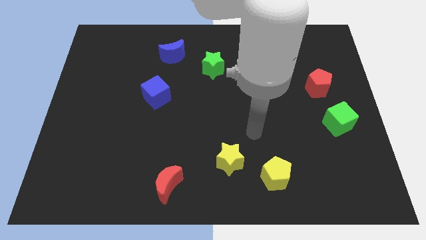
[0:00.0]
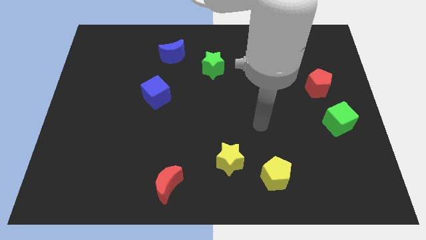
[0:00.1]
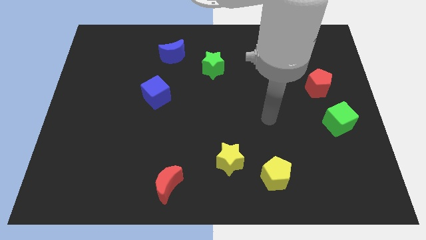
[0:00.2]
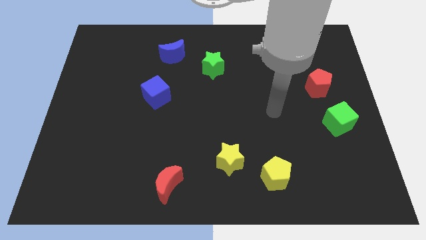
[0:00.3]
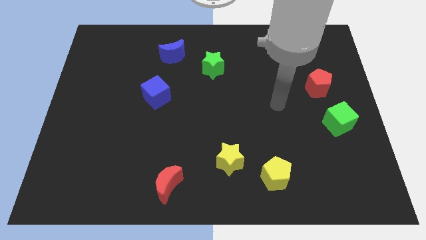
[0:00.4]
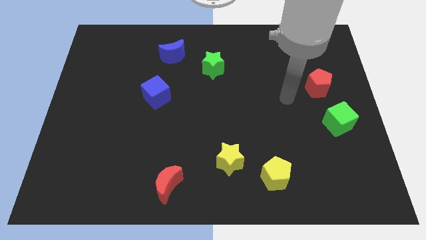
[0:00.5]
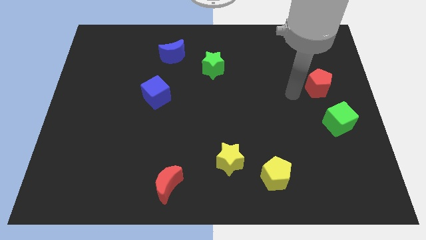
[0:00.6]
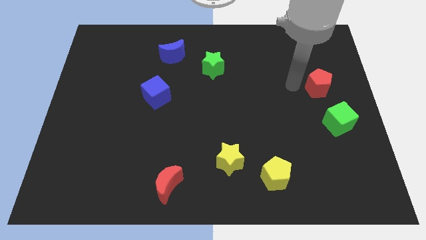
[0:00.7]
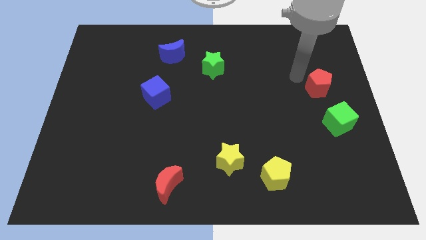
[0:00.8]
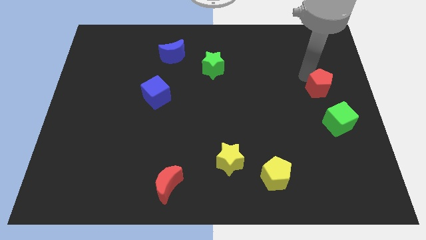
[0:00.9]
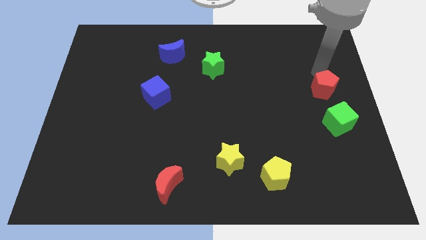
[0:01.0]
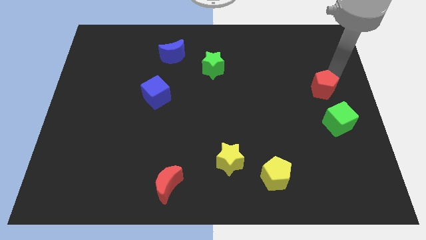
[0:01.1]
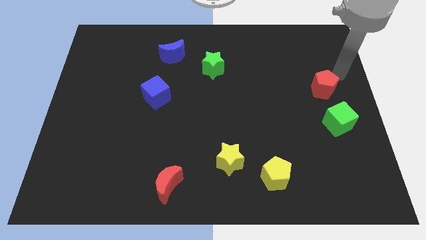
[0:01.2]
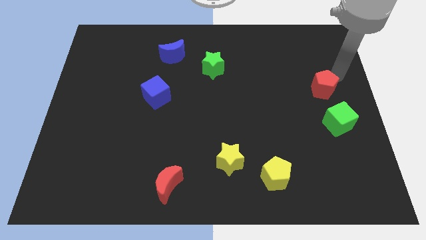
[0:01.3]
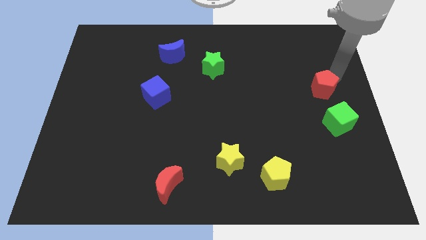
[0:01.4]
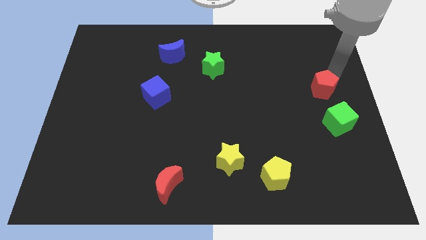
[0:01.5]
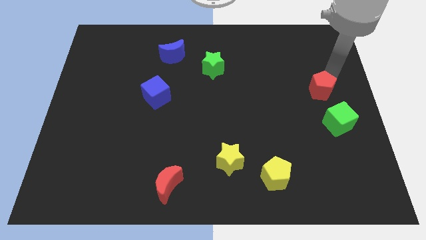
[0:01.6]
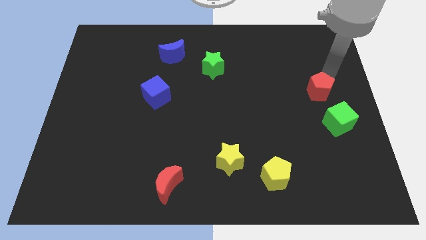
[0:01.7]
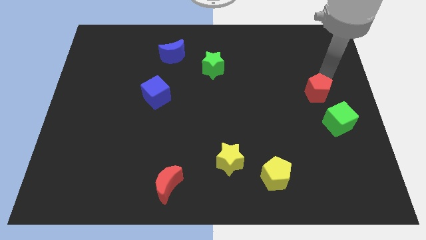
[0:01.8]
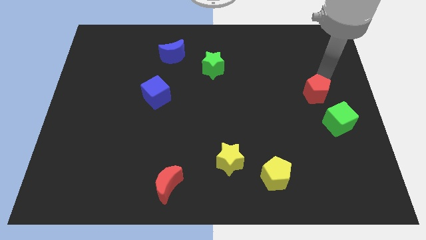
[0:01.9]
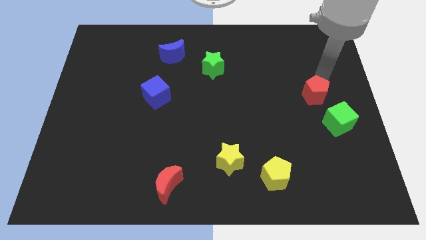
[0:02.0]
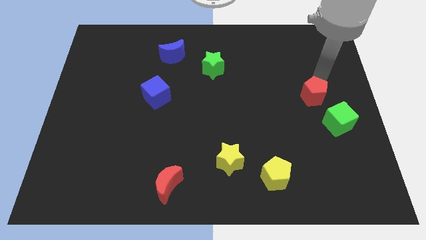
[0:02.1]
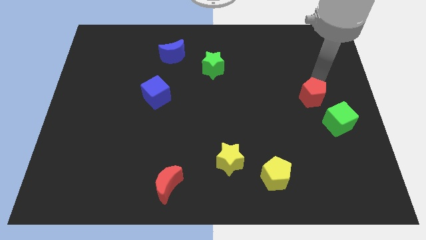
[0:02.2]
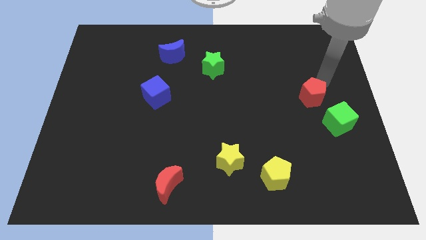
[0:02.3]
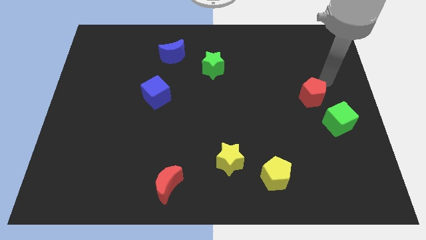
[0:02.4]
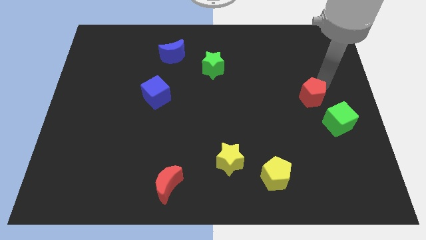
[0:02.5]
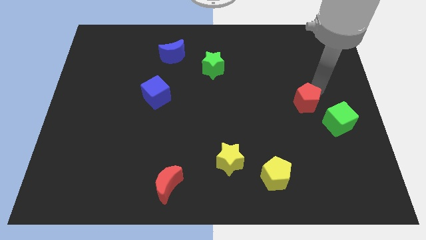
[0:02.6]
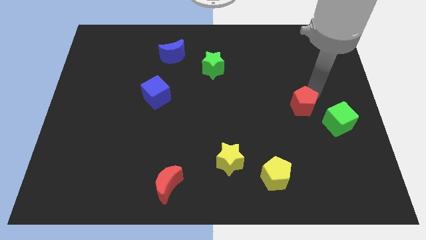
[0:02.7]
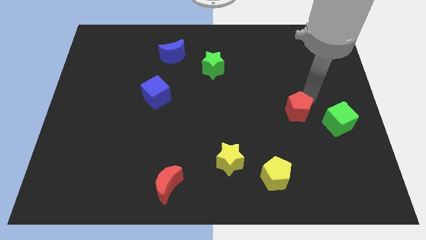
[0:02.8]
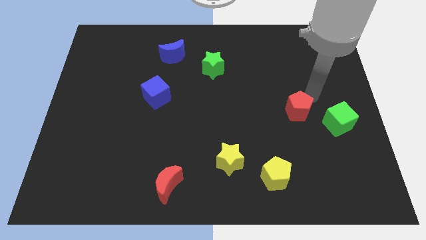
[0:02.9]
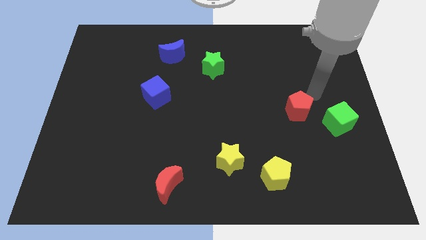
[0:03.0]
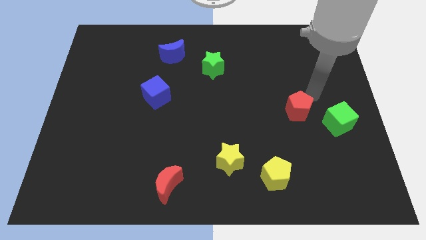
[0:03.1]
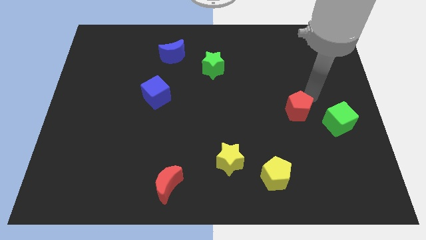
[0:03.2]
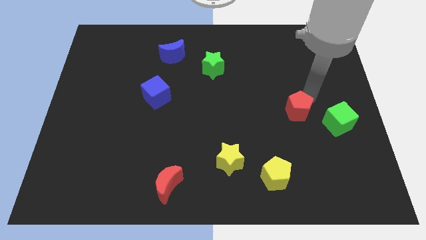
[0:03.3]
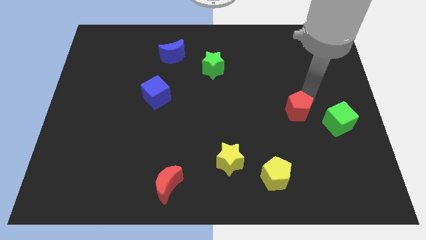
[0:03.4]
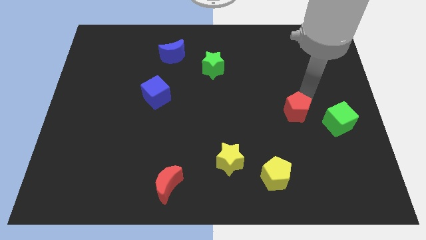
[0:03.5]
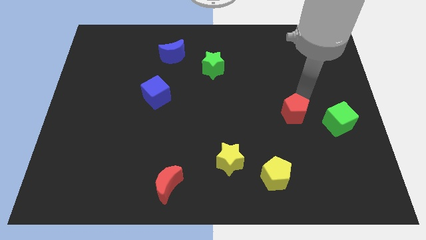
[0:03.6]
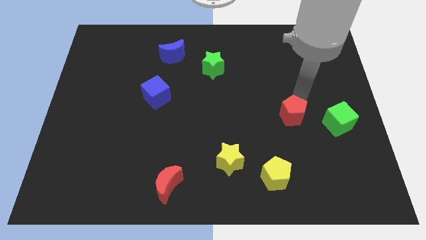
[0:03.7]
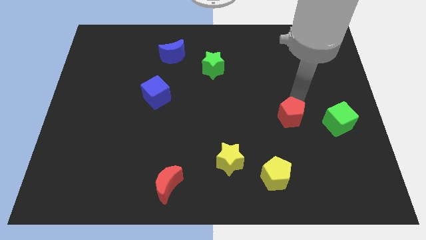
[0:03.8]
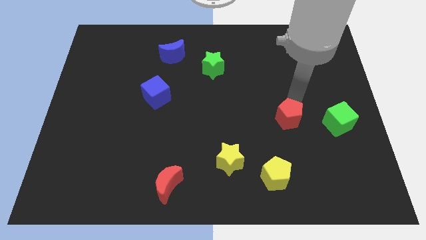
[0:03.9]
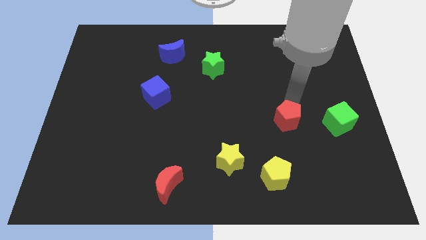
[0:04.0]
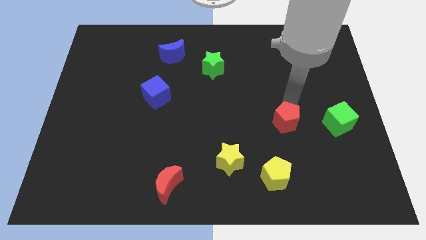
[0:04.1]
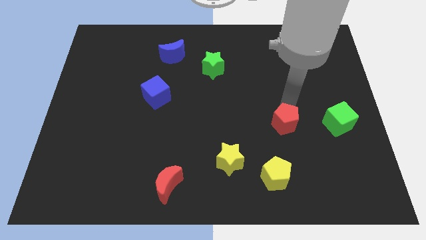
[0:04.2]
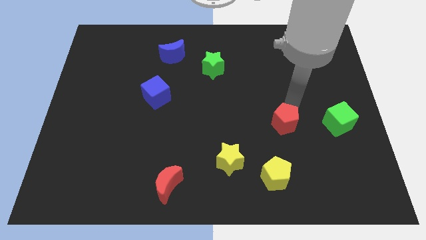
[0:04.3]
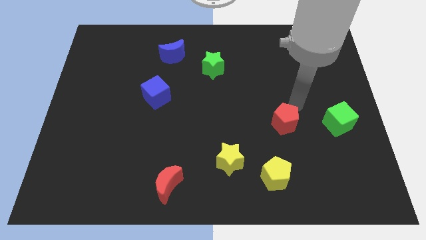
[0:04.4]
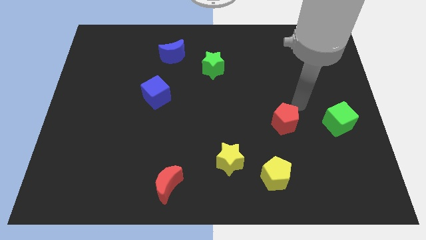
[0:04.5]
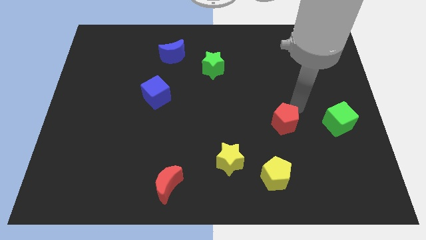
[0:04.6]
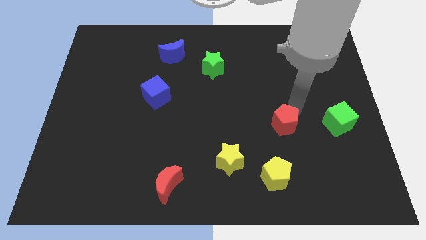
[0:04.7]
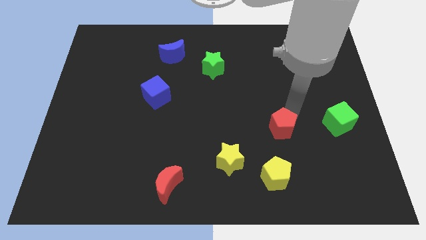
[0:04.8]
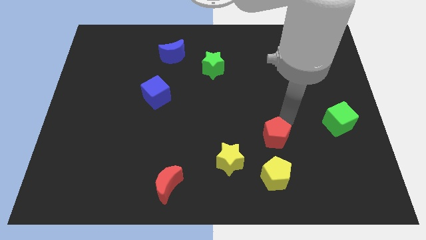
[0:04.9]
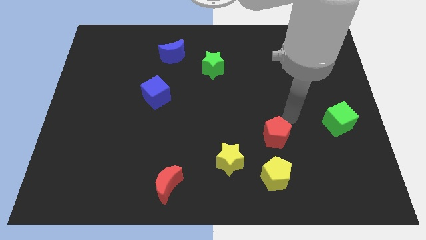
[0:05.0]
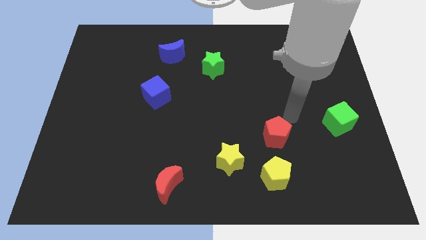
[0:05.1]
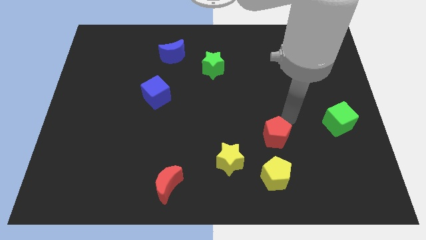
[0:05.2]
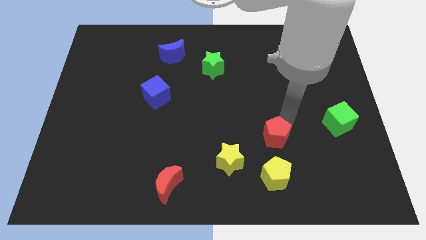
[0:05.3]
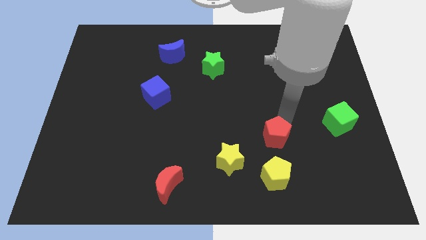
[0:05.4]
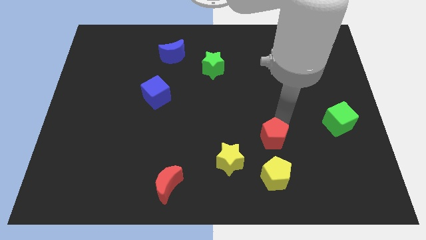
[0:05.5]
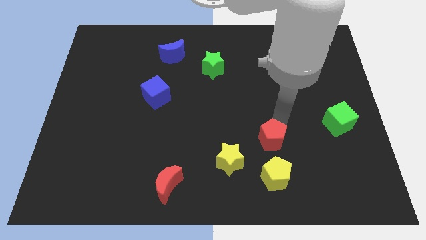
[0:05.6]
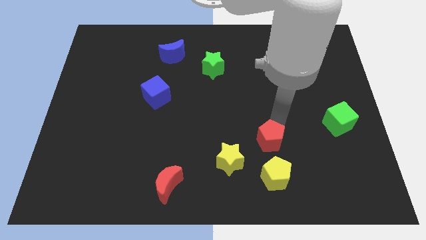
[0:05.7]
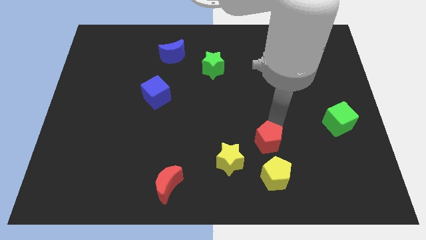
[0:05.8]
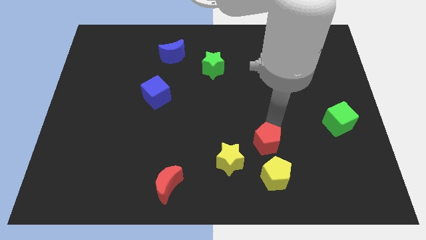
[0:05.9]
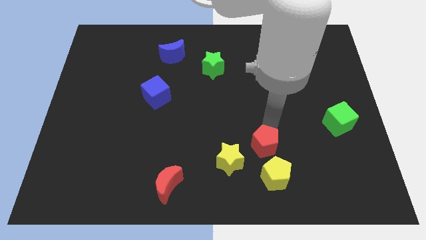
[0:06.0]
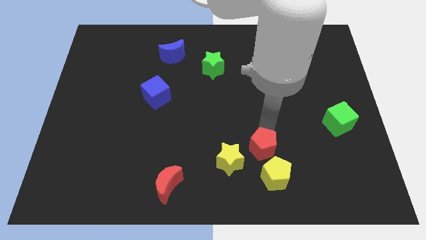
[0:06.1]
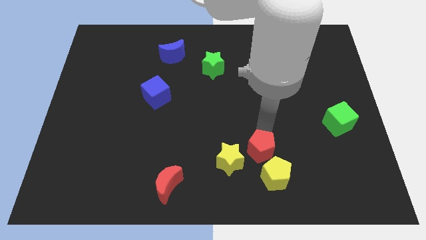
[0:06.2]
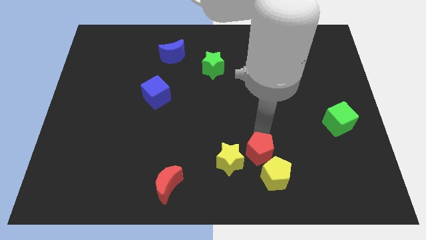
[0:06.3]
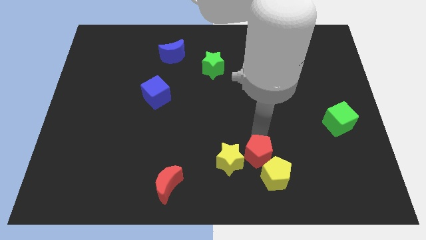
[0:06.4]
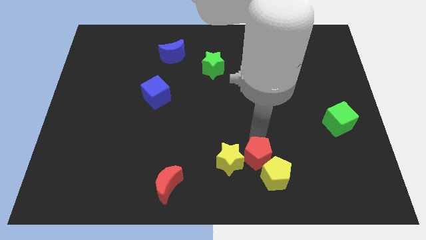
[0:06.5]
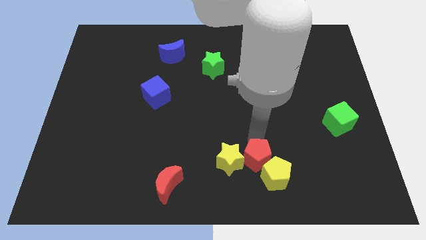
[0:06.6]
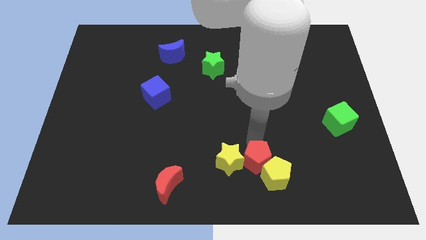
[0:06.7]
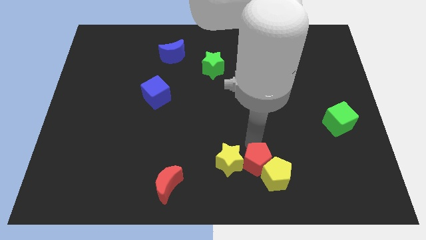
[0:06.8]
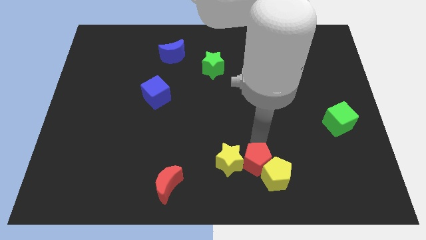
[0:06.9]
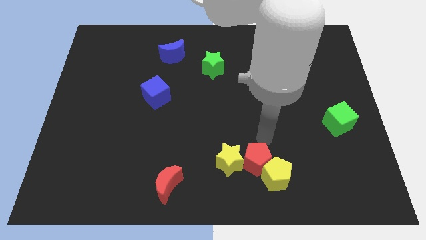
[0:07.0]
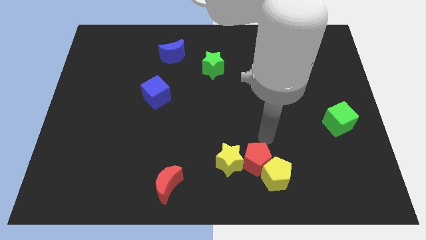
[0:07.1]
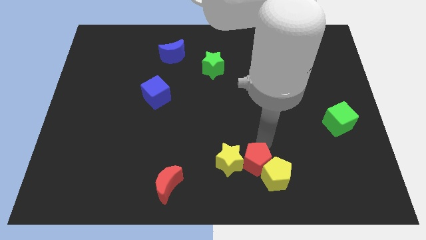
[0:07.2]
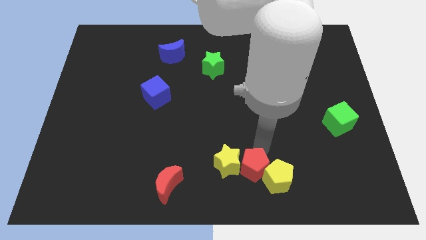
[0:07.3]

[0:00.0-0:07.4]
move the red pentagon to the bottom
